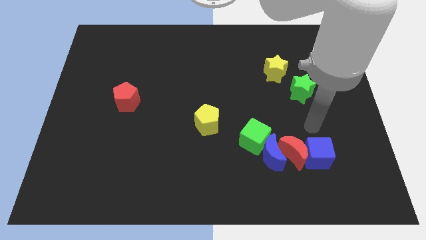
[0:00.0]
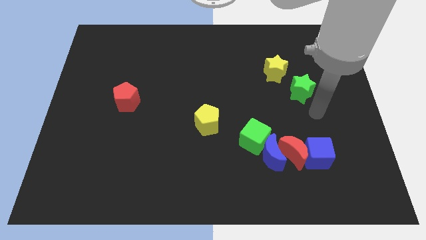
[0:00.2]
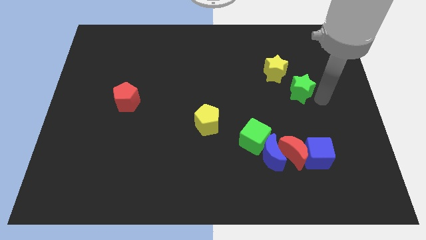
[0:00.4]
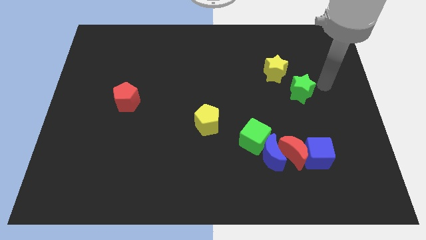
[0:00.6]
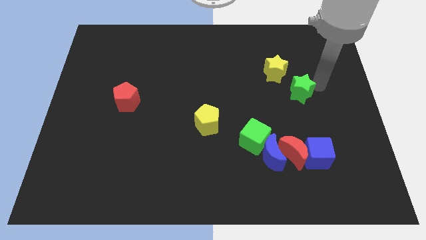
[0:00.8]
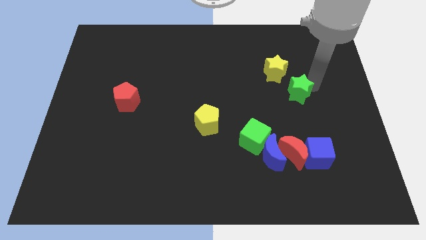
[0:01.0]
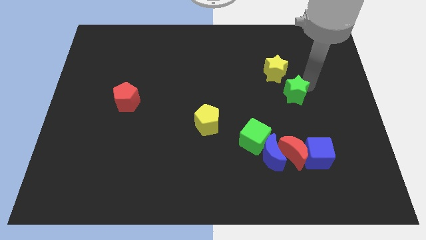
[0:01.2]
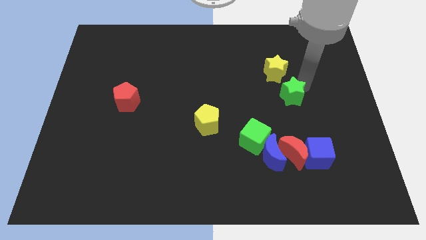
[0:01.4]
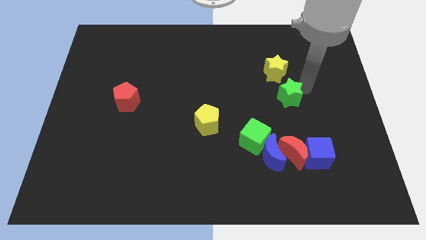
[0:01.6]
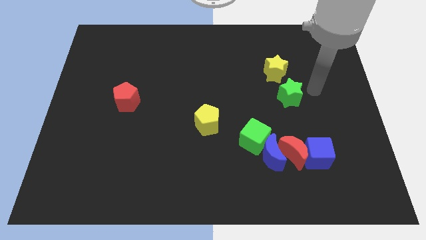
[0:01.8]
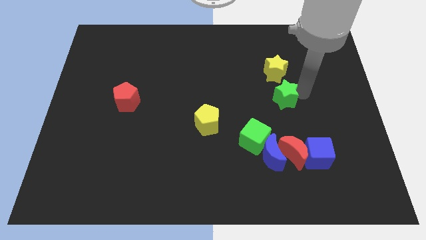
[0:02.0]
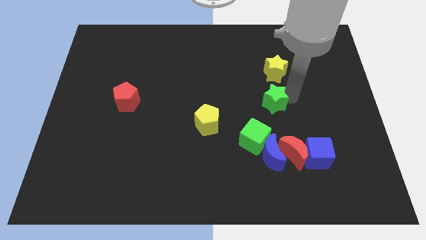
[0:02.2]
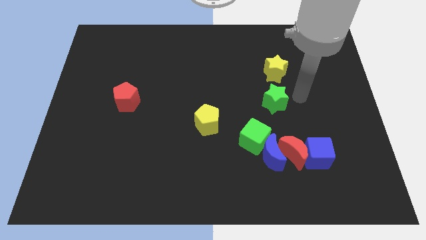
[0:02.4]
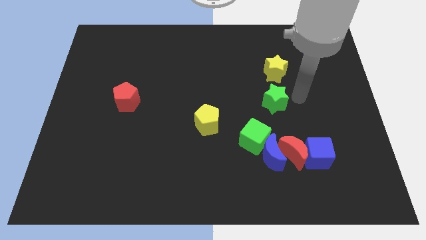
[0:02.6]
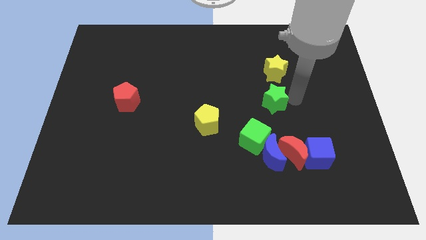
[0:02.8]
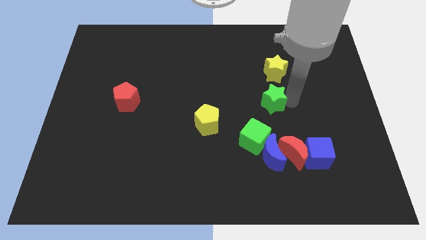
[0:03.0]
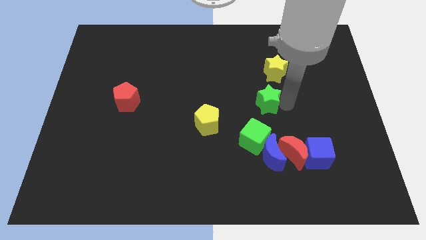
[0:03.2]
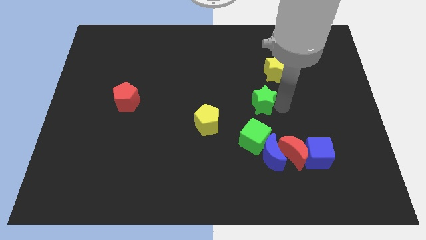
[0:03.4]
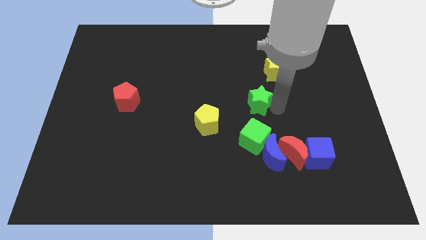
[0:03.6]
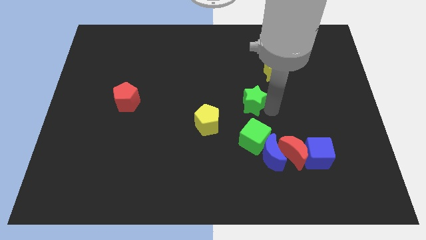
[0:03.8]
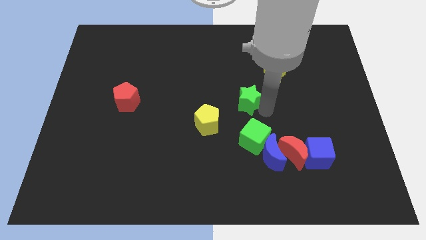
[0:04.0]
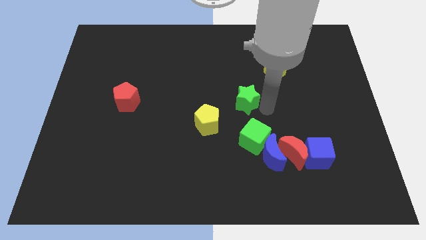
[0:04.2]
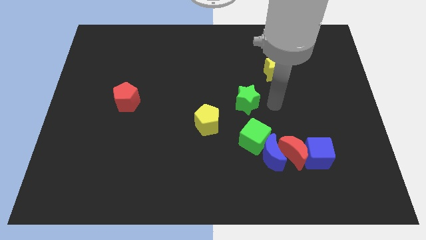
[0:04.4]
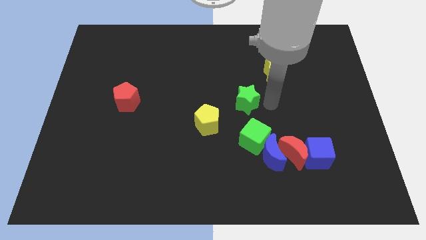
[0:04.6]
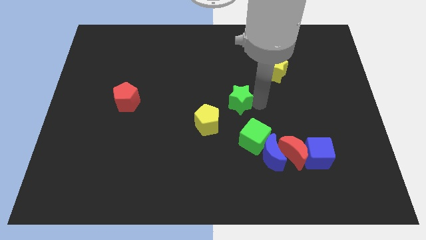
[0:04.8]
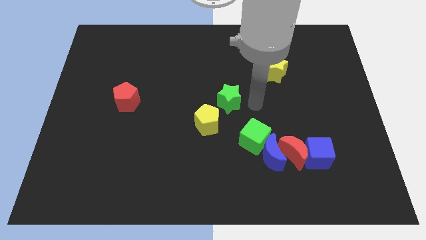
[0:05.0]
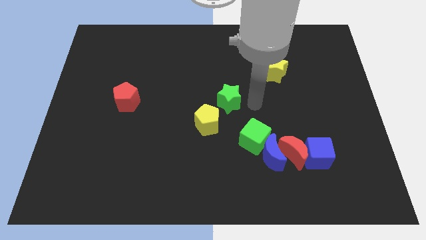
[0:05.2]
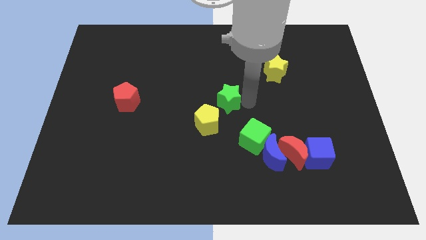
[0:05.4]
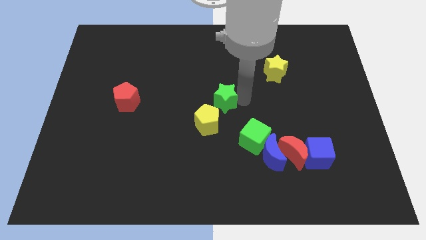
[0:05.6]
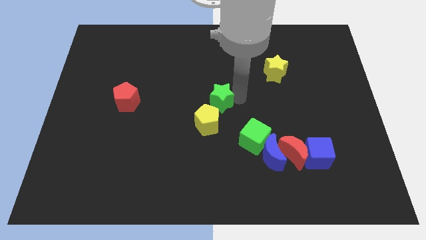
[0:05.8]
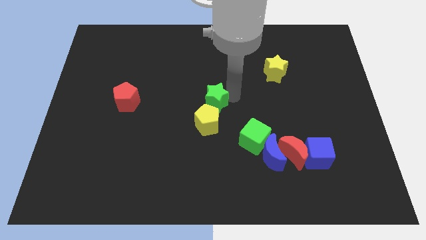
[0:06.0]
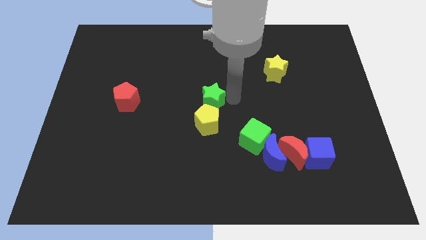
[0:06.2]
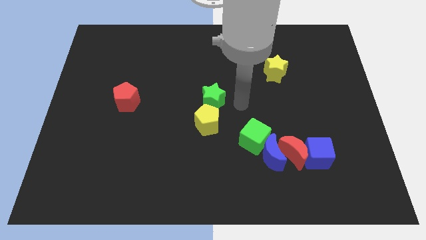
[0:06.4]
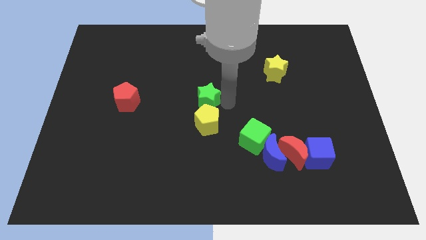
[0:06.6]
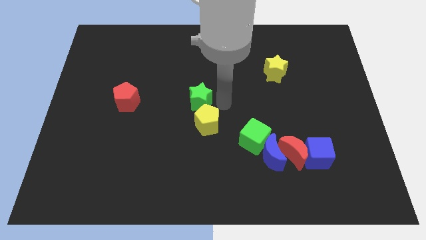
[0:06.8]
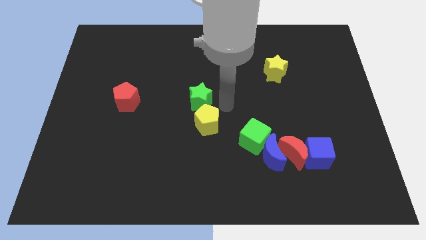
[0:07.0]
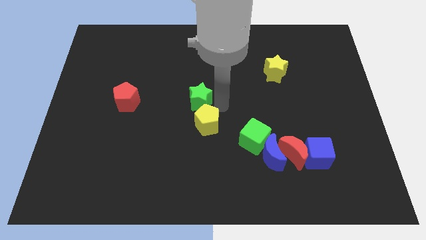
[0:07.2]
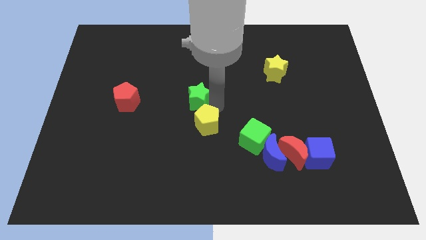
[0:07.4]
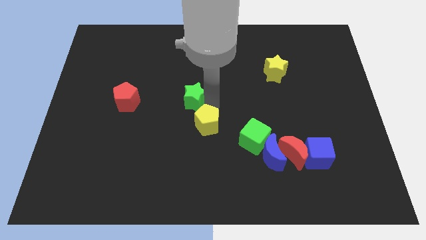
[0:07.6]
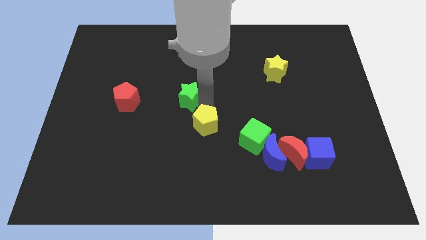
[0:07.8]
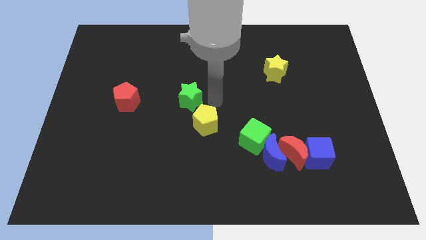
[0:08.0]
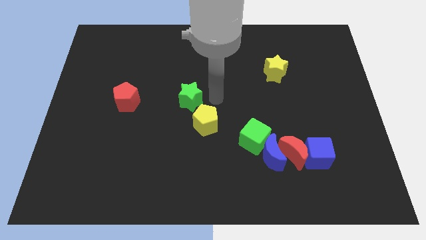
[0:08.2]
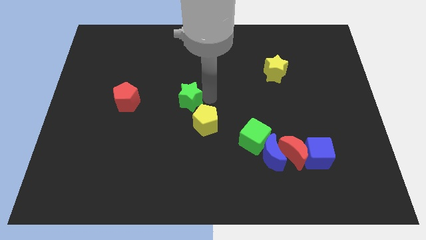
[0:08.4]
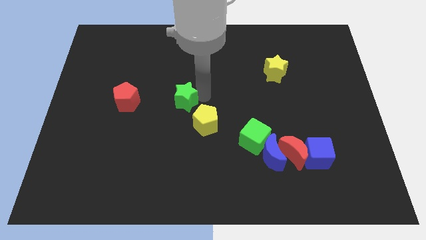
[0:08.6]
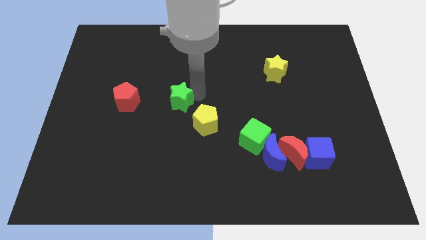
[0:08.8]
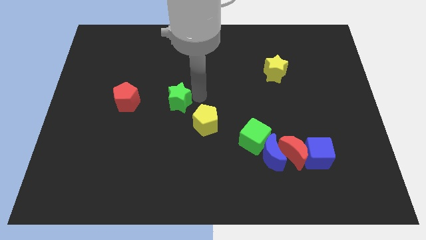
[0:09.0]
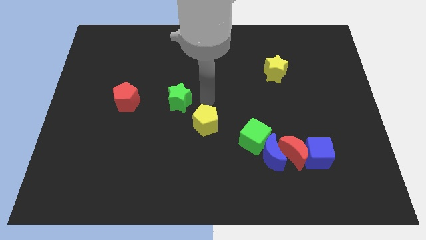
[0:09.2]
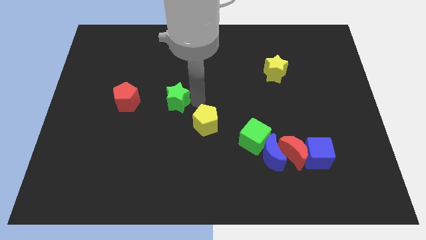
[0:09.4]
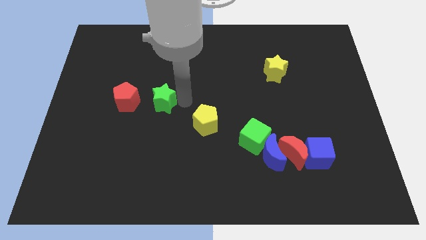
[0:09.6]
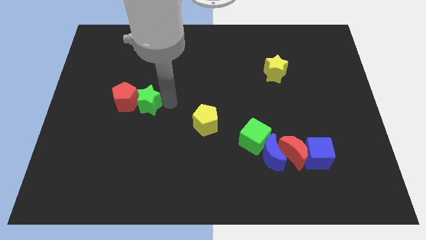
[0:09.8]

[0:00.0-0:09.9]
move the green star to the red pentagon

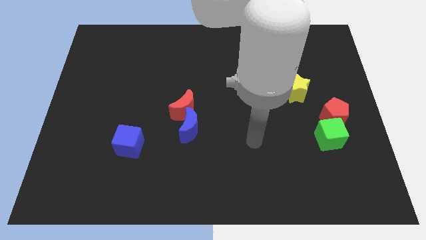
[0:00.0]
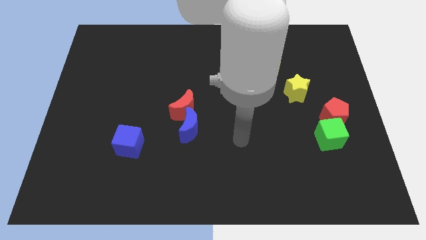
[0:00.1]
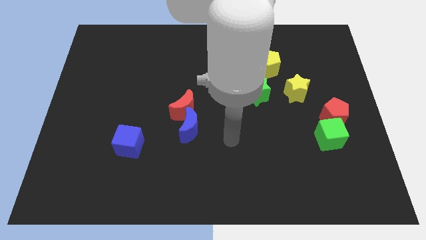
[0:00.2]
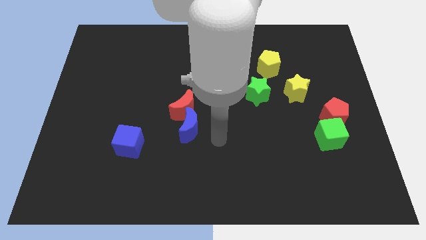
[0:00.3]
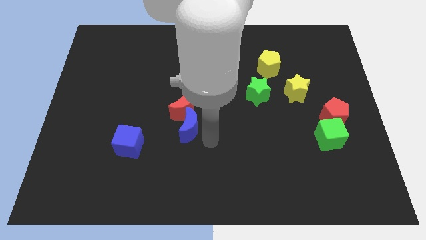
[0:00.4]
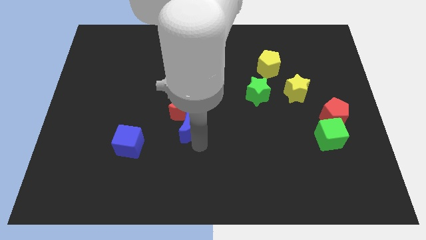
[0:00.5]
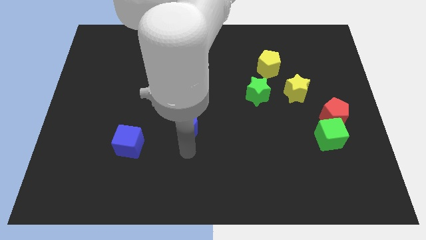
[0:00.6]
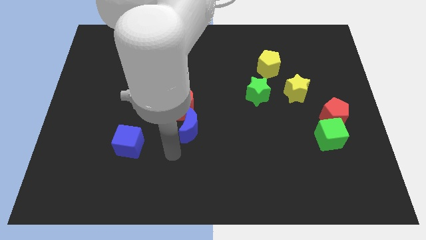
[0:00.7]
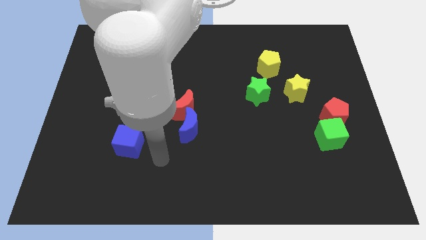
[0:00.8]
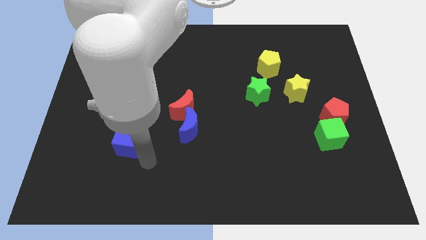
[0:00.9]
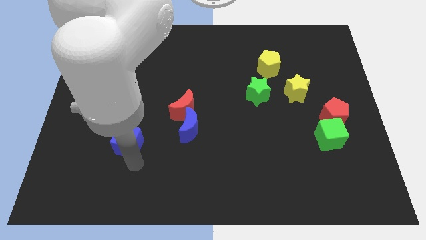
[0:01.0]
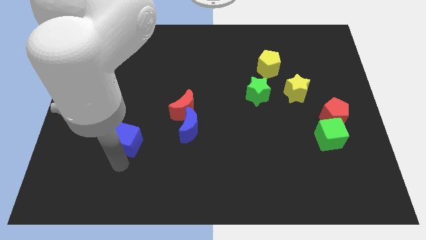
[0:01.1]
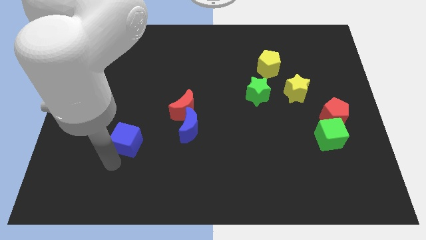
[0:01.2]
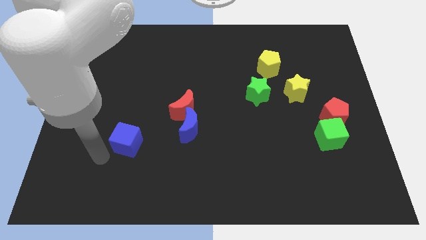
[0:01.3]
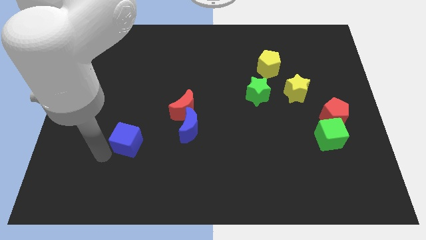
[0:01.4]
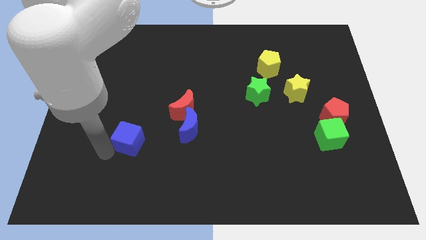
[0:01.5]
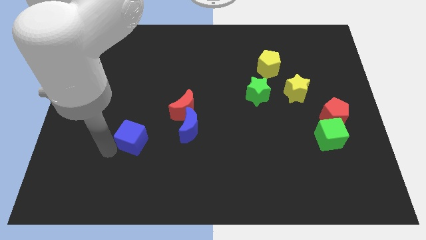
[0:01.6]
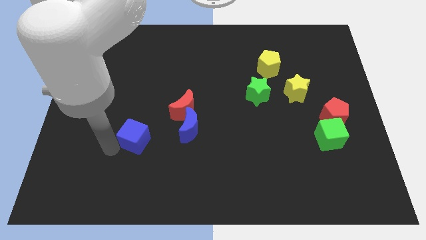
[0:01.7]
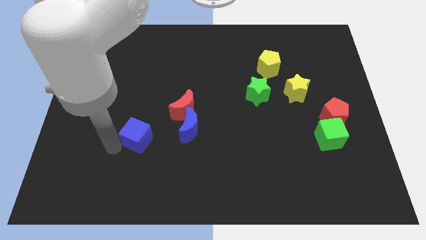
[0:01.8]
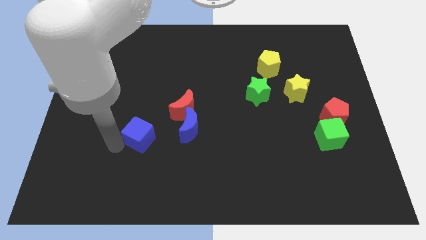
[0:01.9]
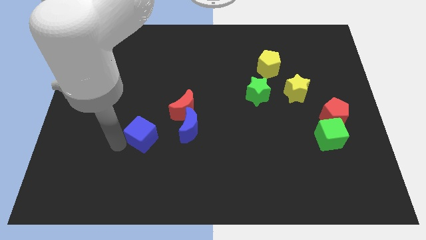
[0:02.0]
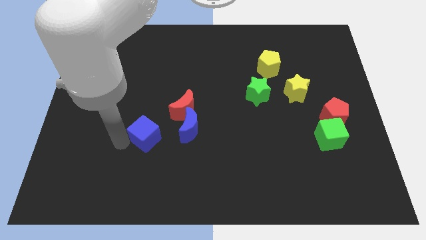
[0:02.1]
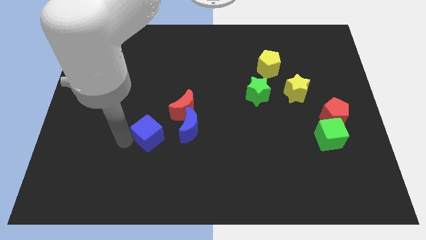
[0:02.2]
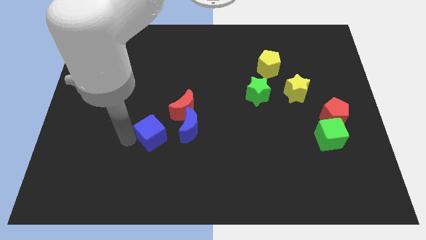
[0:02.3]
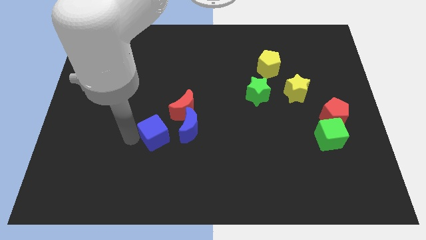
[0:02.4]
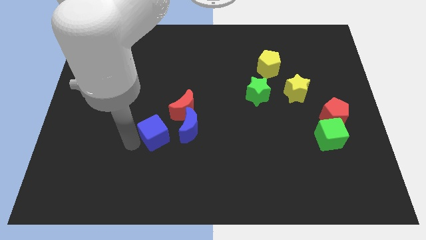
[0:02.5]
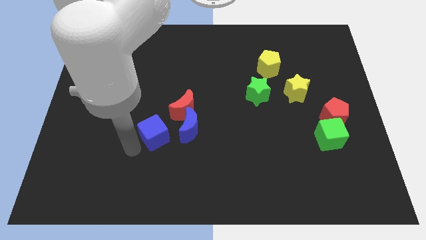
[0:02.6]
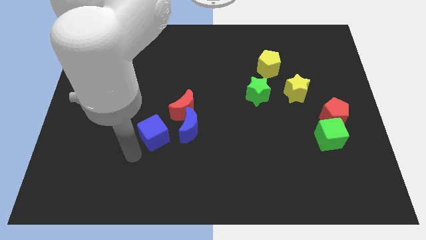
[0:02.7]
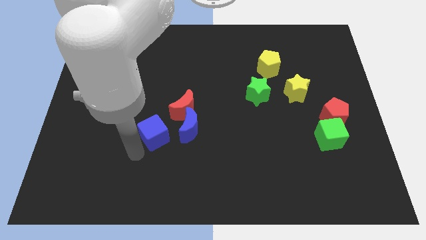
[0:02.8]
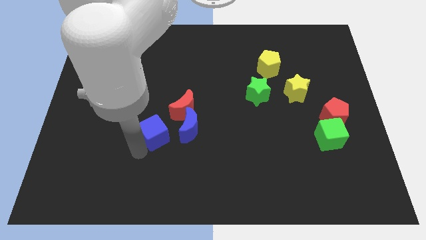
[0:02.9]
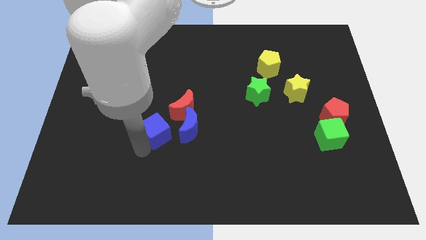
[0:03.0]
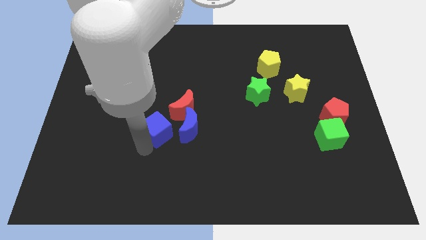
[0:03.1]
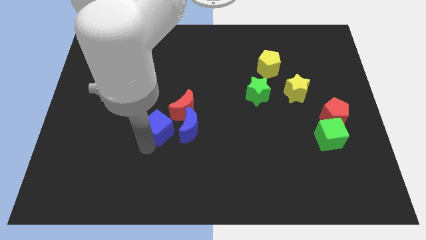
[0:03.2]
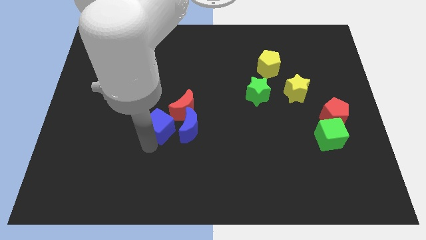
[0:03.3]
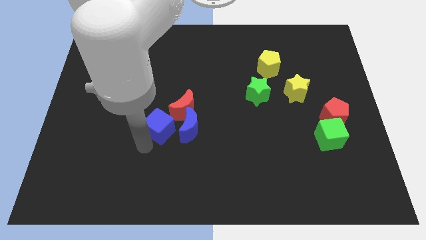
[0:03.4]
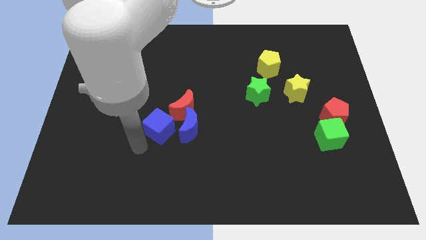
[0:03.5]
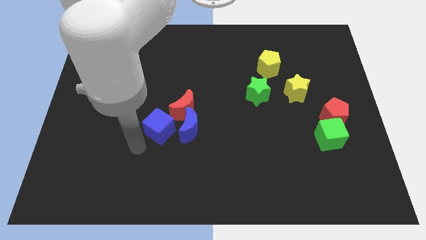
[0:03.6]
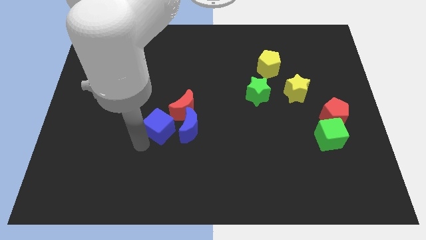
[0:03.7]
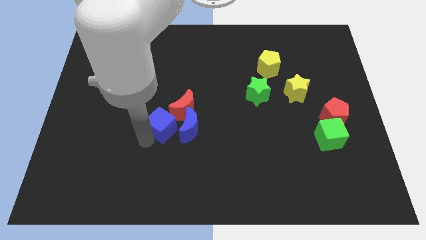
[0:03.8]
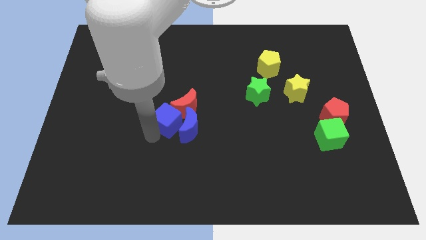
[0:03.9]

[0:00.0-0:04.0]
push the blue cube close to the red moon
